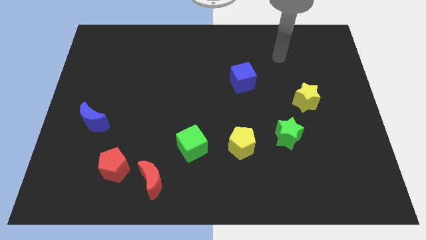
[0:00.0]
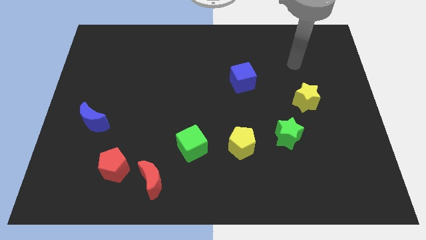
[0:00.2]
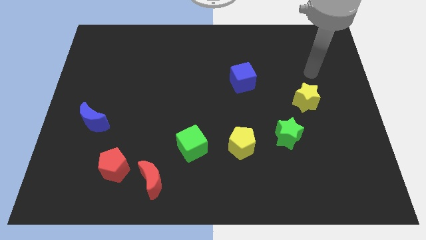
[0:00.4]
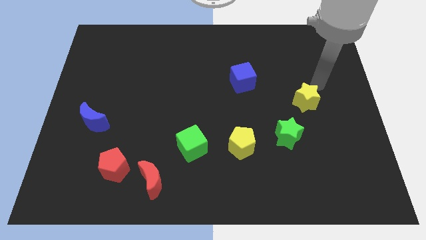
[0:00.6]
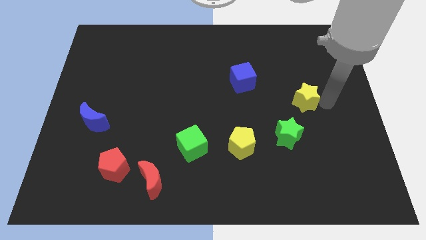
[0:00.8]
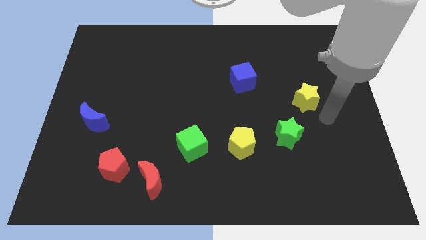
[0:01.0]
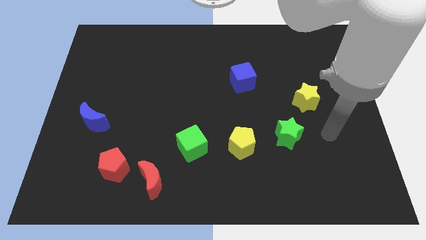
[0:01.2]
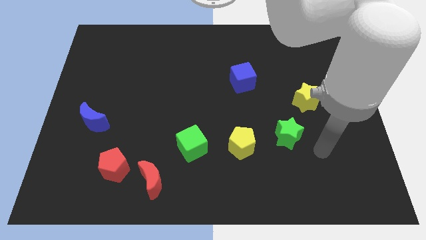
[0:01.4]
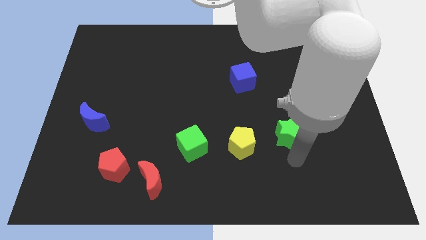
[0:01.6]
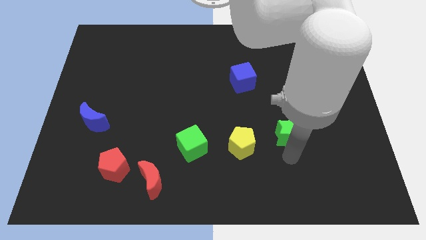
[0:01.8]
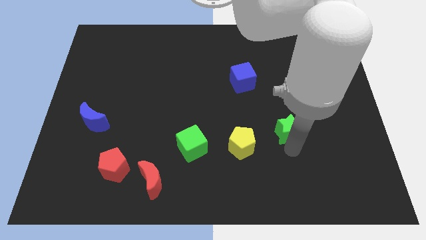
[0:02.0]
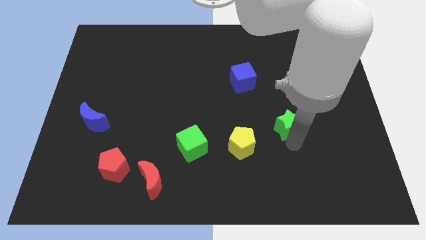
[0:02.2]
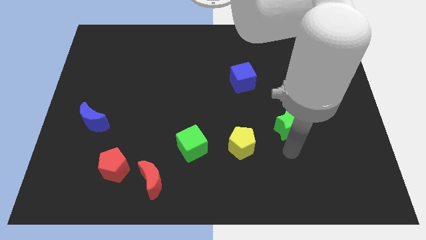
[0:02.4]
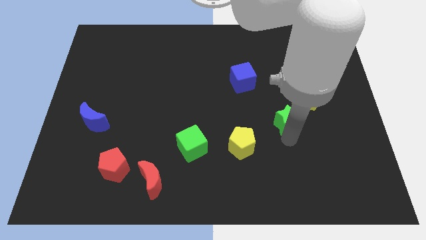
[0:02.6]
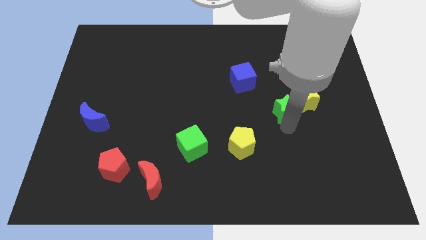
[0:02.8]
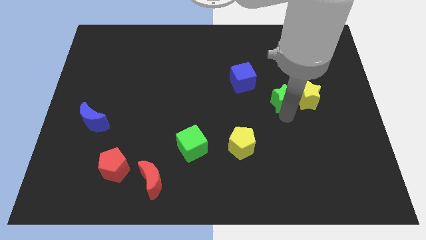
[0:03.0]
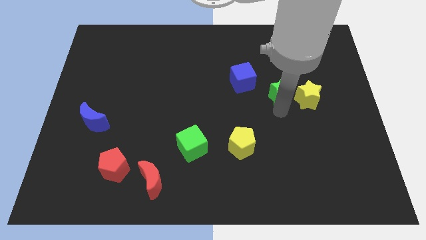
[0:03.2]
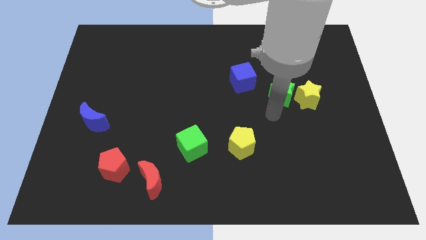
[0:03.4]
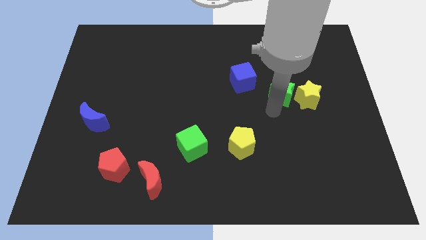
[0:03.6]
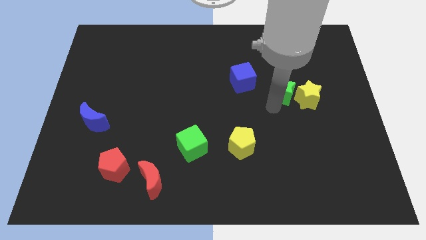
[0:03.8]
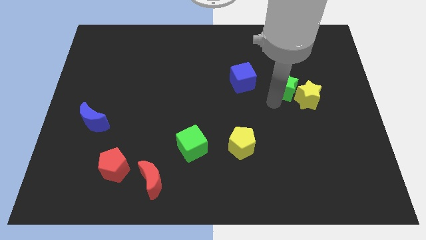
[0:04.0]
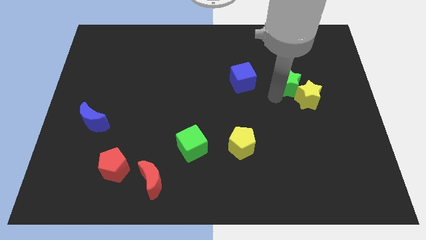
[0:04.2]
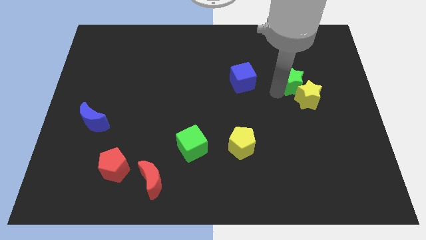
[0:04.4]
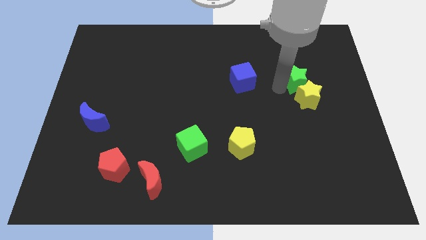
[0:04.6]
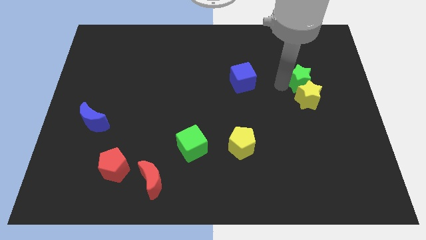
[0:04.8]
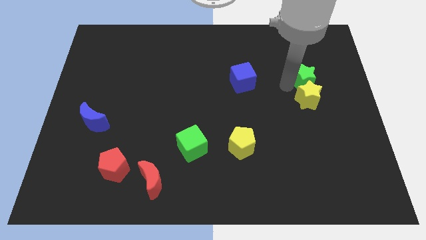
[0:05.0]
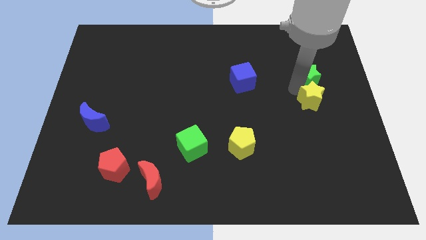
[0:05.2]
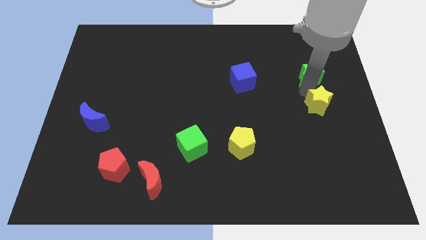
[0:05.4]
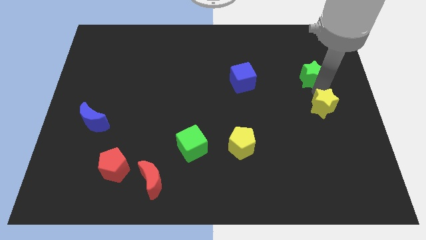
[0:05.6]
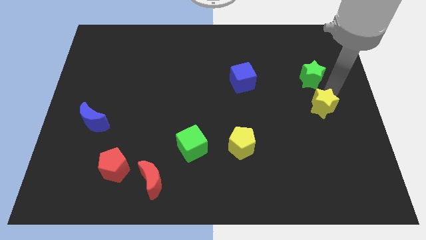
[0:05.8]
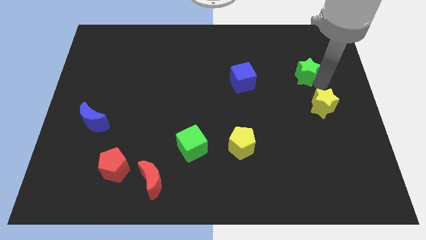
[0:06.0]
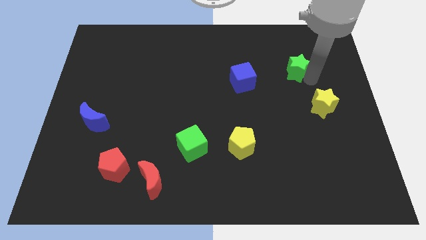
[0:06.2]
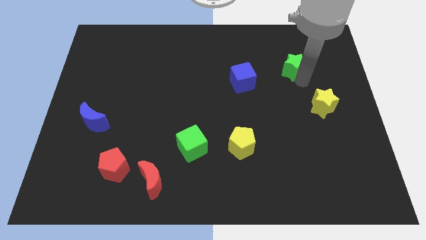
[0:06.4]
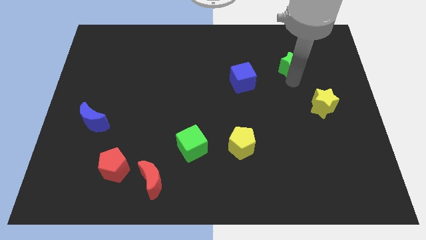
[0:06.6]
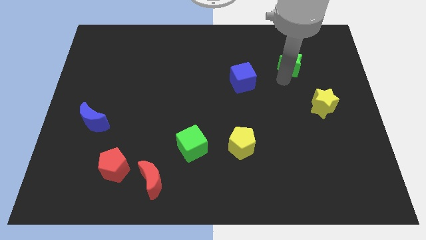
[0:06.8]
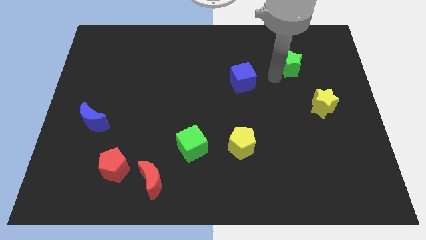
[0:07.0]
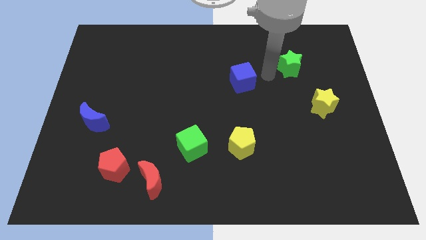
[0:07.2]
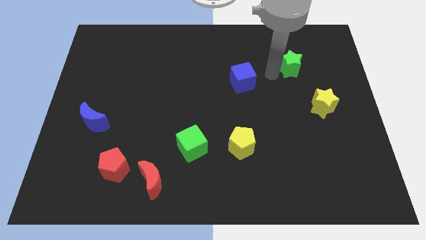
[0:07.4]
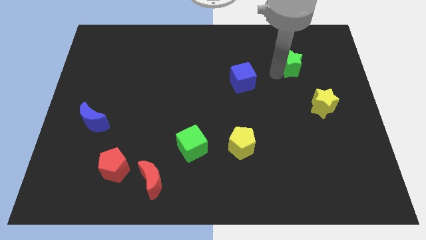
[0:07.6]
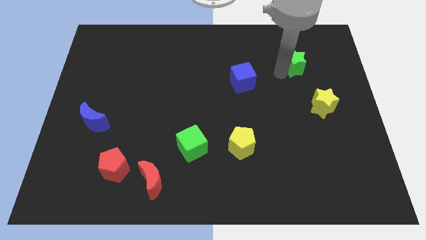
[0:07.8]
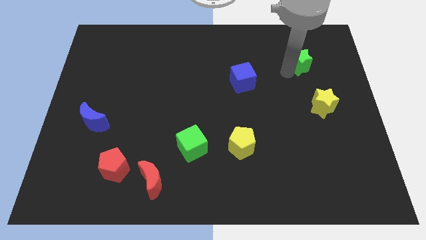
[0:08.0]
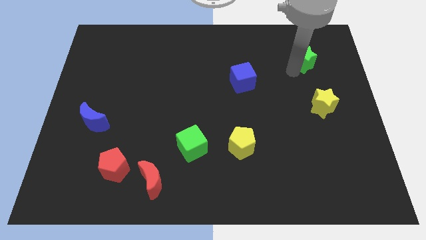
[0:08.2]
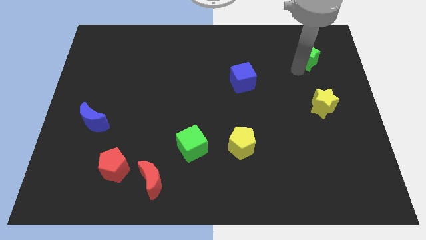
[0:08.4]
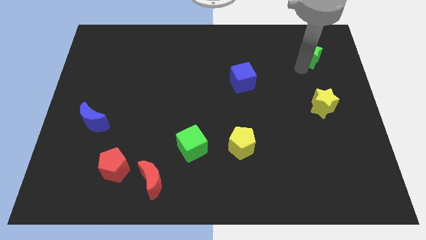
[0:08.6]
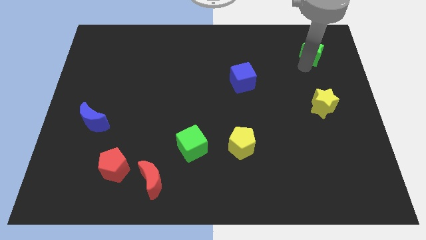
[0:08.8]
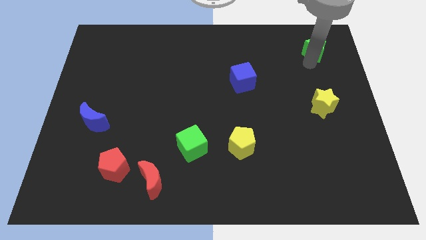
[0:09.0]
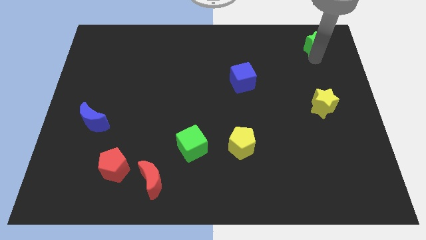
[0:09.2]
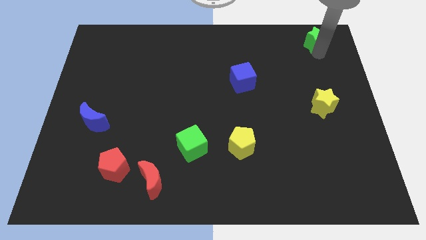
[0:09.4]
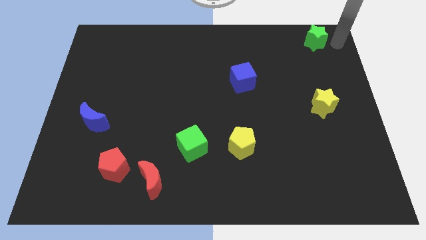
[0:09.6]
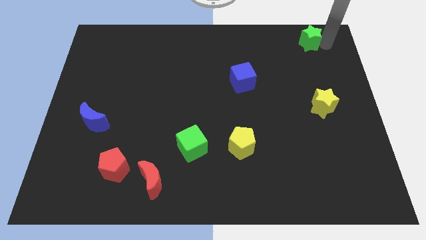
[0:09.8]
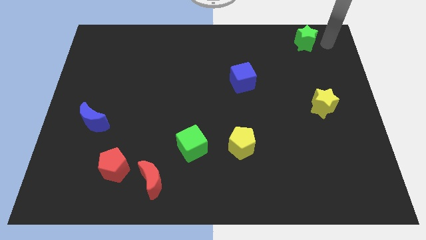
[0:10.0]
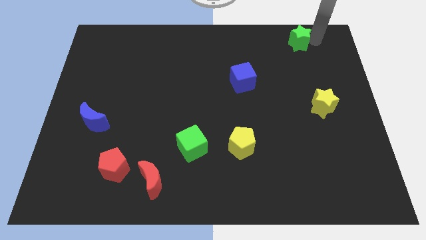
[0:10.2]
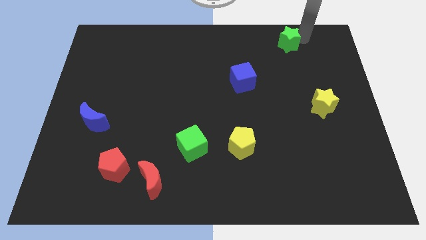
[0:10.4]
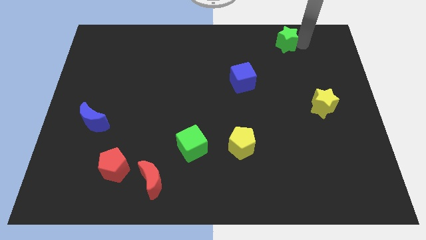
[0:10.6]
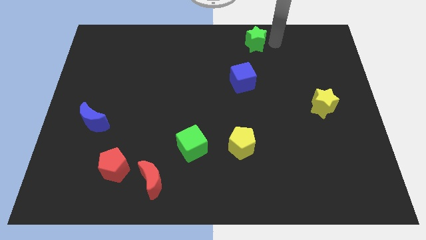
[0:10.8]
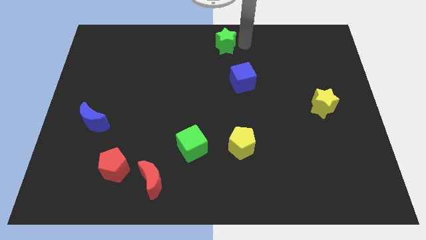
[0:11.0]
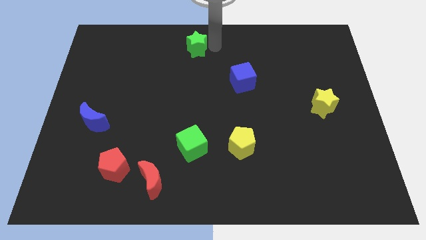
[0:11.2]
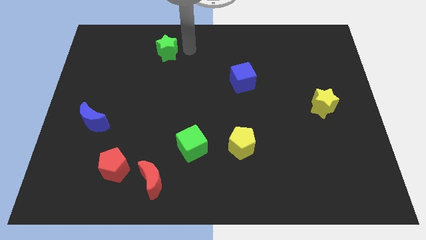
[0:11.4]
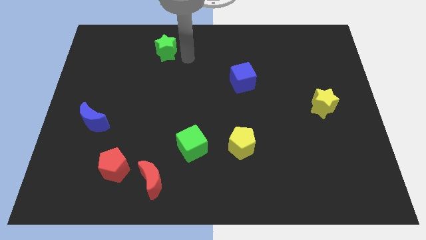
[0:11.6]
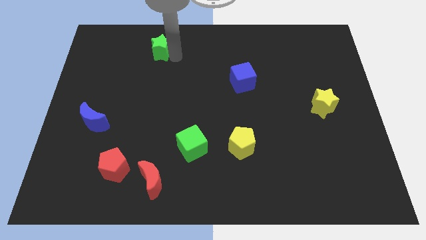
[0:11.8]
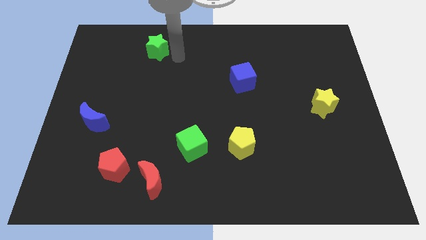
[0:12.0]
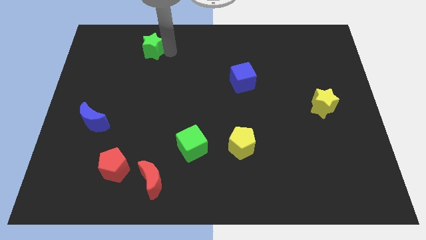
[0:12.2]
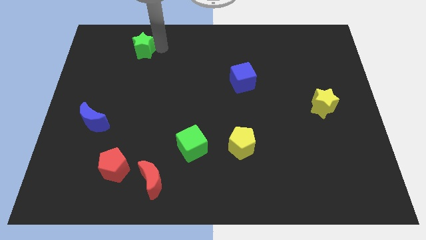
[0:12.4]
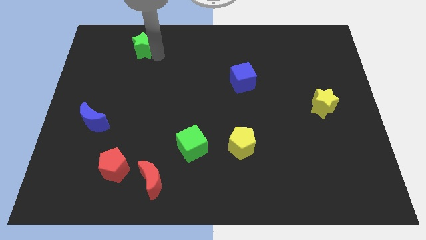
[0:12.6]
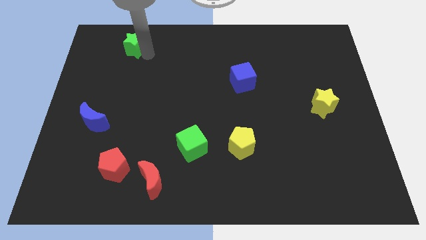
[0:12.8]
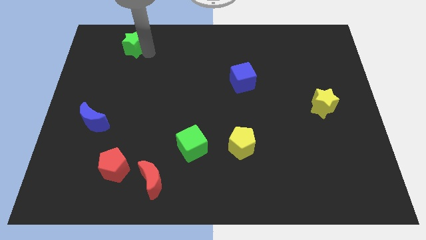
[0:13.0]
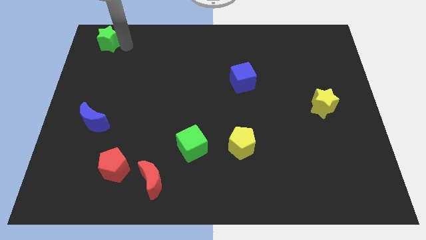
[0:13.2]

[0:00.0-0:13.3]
put the green star to the top left of the board
